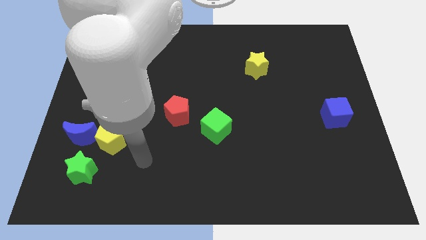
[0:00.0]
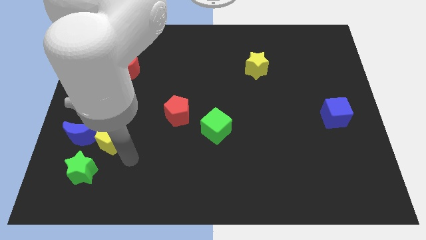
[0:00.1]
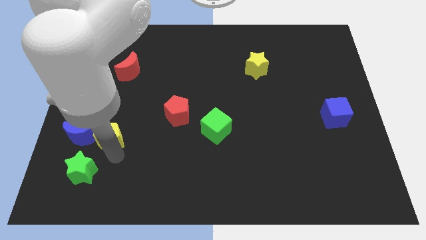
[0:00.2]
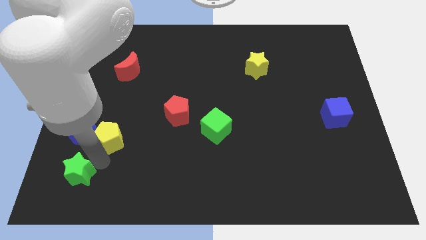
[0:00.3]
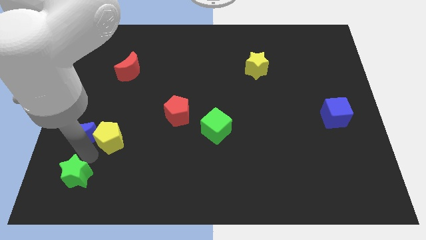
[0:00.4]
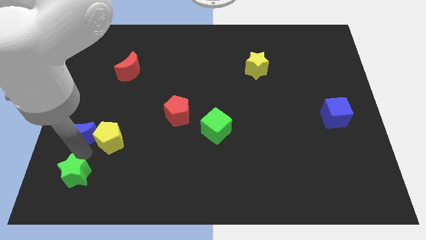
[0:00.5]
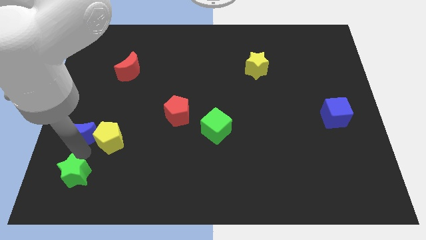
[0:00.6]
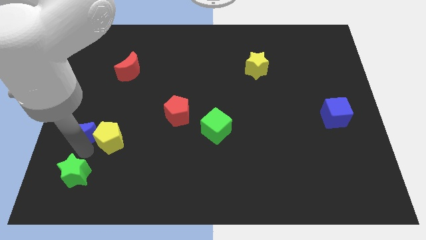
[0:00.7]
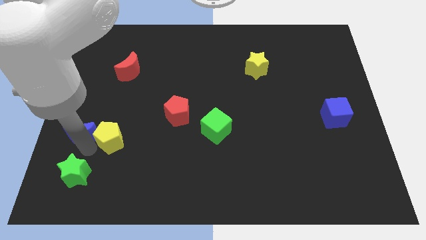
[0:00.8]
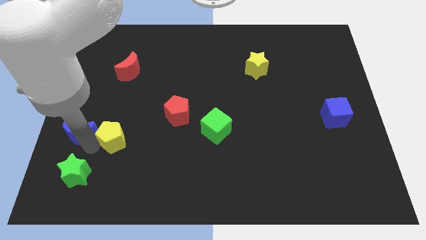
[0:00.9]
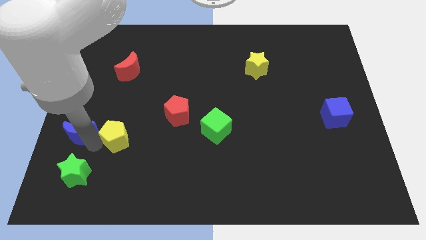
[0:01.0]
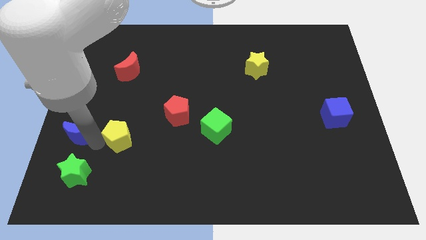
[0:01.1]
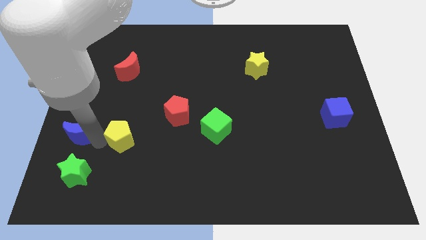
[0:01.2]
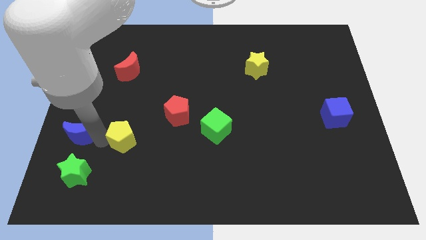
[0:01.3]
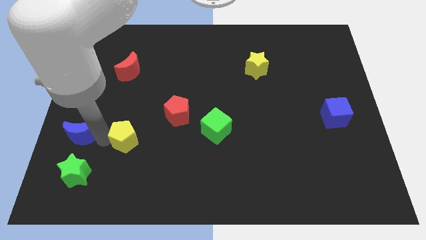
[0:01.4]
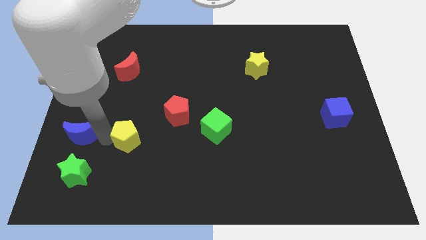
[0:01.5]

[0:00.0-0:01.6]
pull the yellow pentagon apart from the blue moon and green star

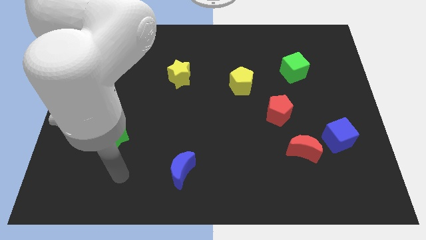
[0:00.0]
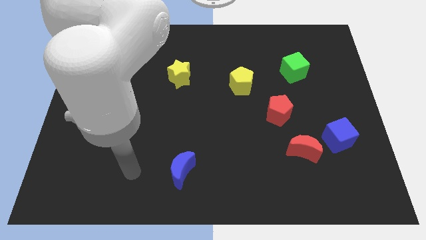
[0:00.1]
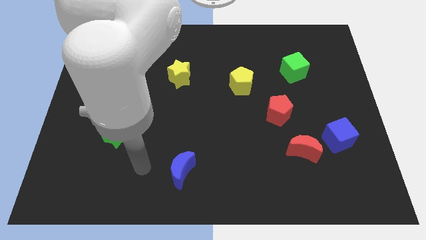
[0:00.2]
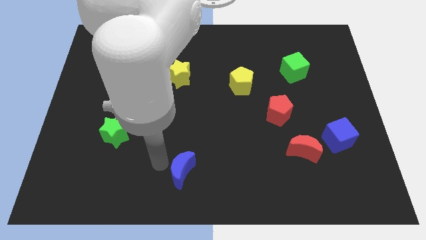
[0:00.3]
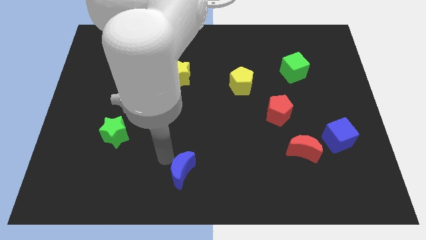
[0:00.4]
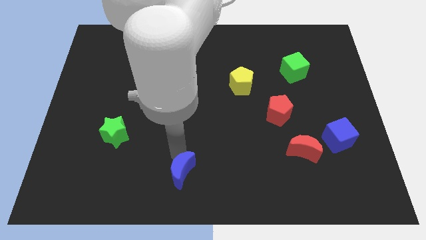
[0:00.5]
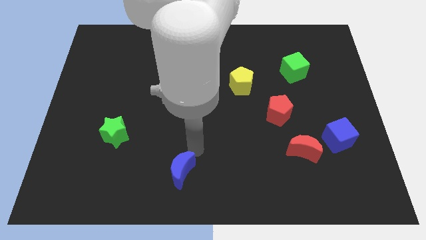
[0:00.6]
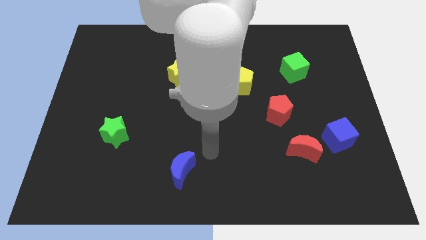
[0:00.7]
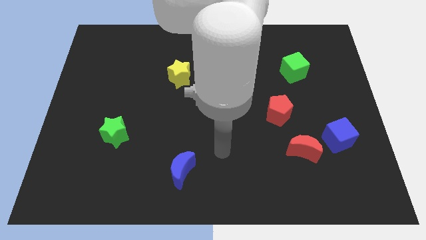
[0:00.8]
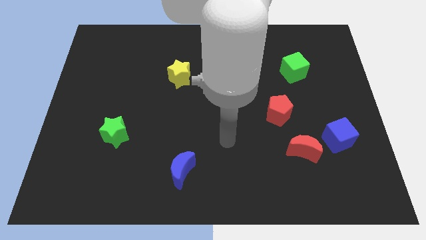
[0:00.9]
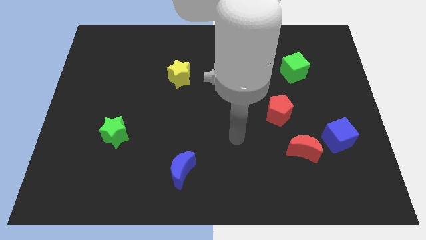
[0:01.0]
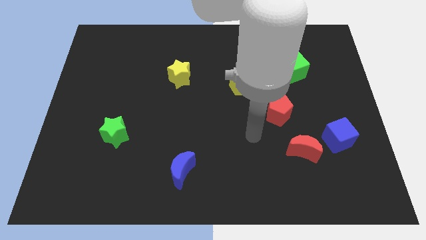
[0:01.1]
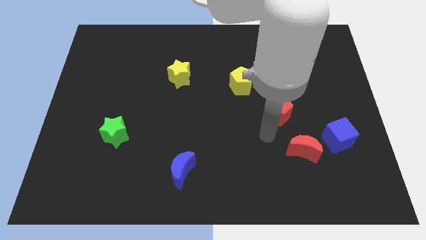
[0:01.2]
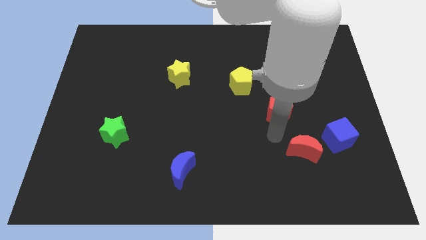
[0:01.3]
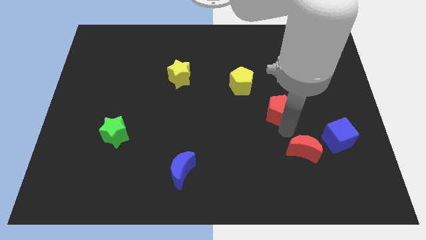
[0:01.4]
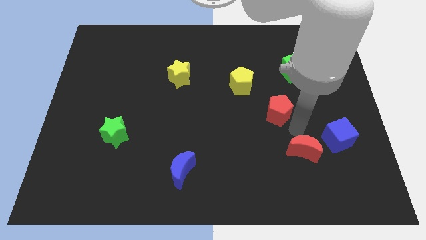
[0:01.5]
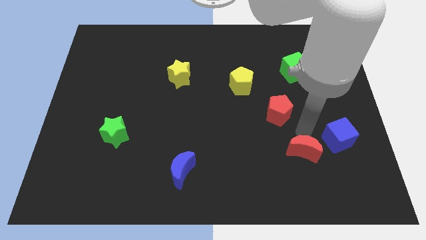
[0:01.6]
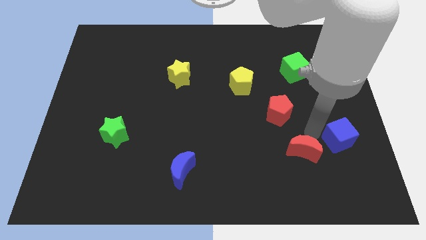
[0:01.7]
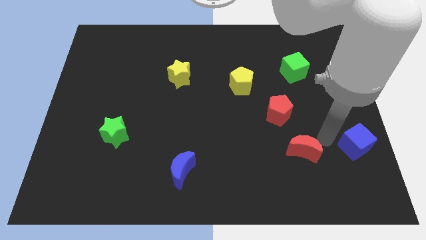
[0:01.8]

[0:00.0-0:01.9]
move the red moon away from the blue cube

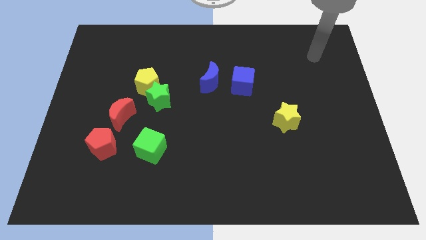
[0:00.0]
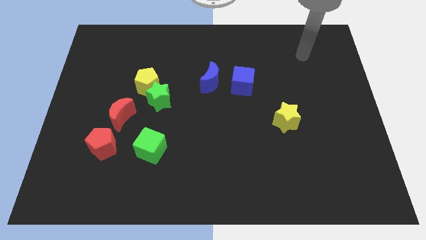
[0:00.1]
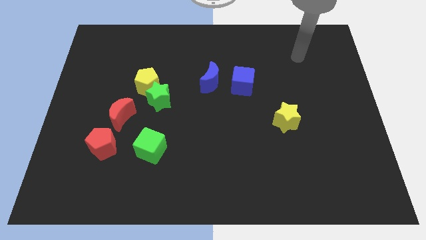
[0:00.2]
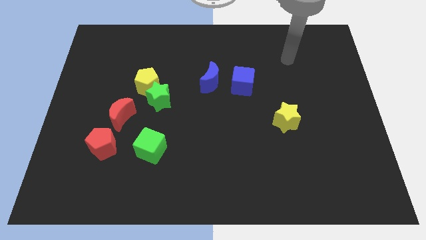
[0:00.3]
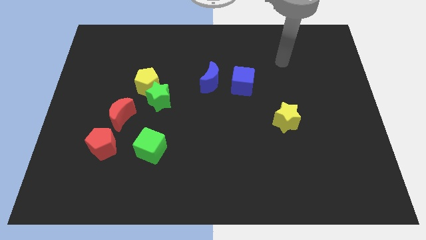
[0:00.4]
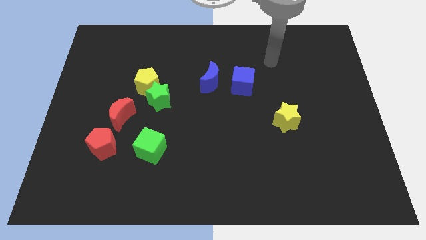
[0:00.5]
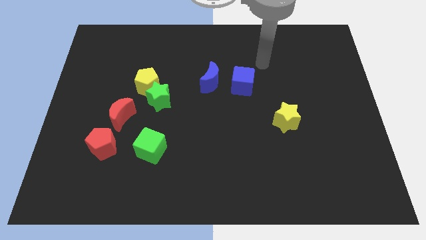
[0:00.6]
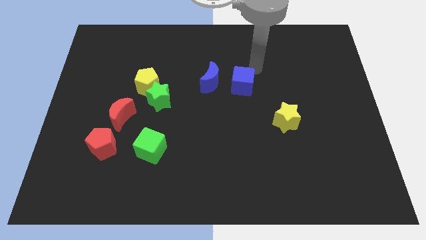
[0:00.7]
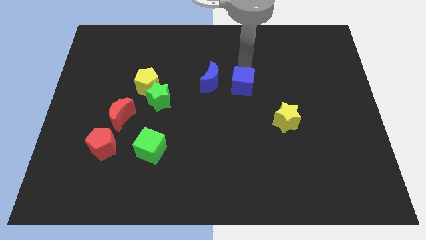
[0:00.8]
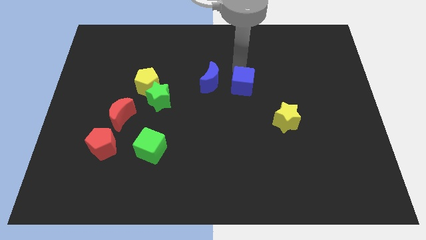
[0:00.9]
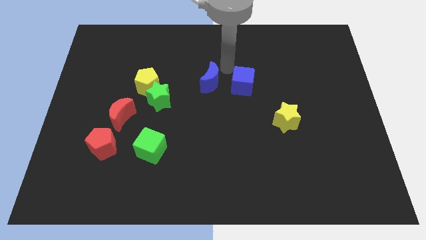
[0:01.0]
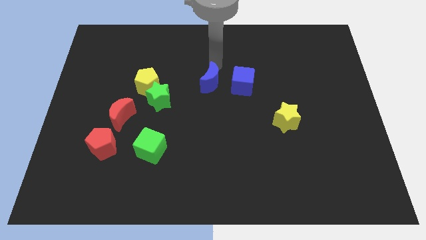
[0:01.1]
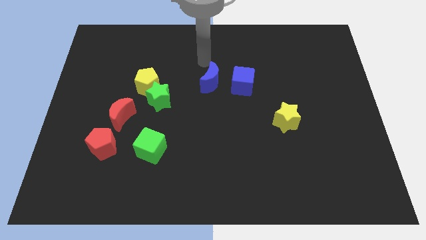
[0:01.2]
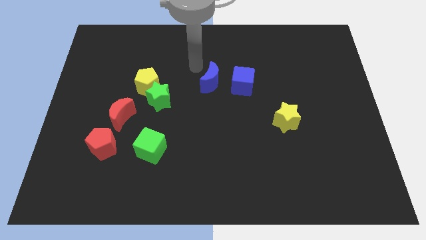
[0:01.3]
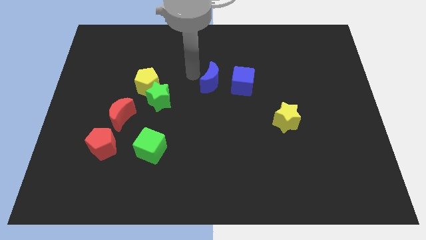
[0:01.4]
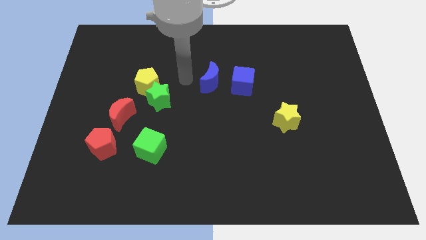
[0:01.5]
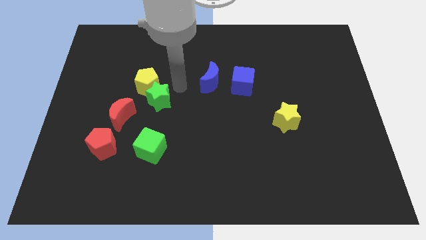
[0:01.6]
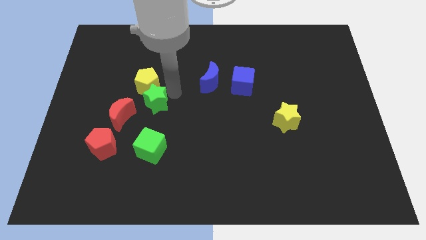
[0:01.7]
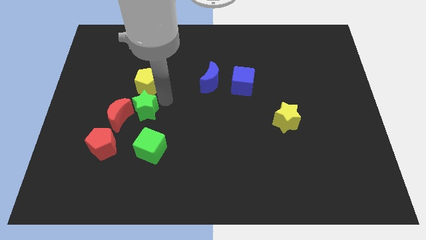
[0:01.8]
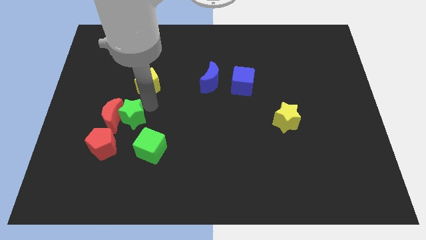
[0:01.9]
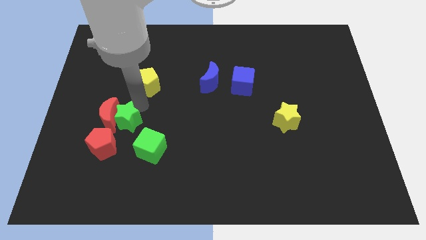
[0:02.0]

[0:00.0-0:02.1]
separate the yellow pentagon from the green star

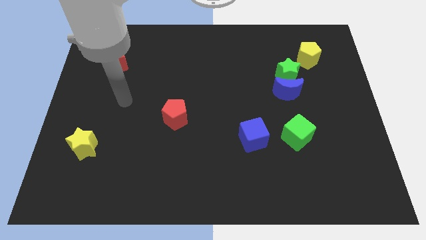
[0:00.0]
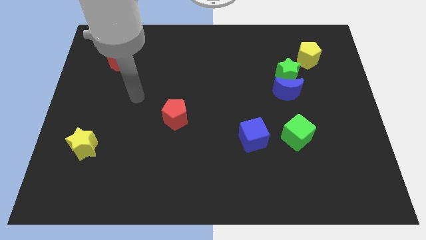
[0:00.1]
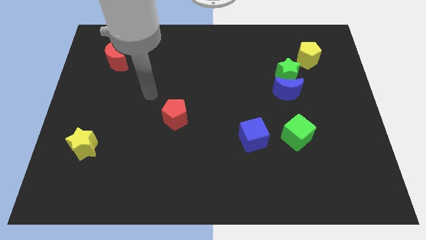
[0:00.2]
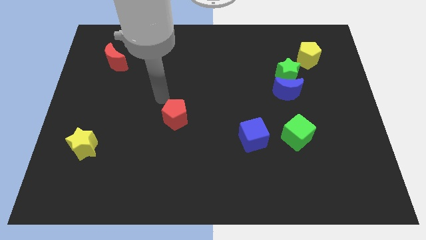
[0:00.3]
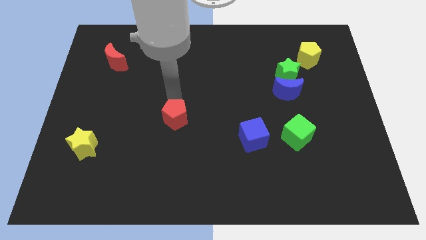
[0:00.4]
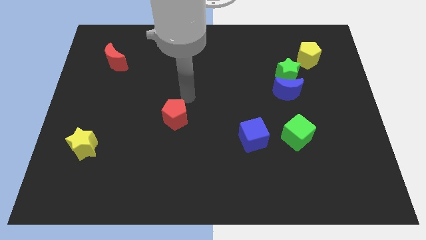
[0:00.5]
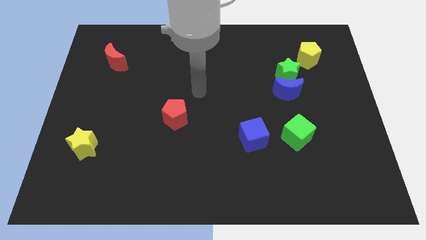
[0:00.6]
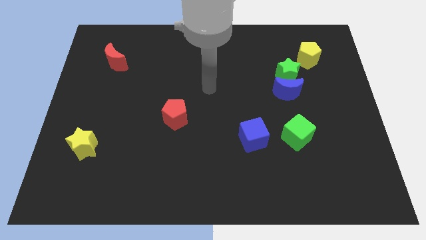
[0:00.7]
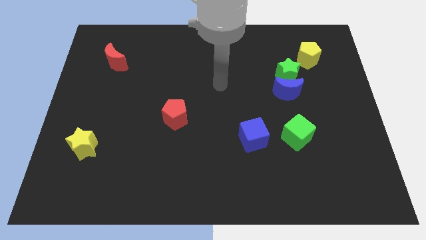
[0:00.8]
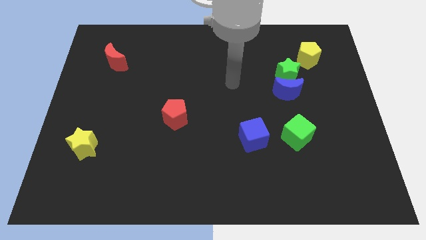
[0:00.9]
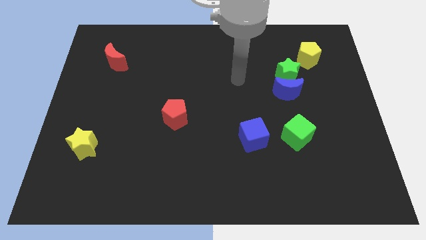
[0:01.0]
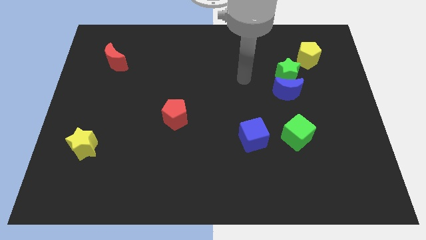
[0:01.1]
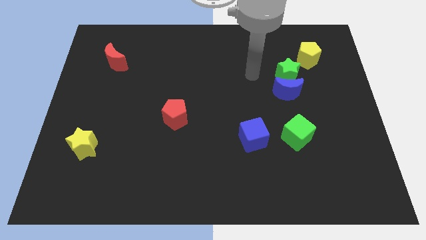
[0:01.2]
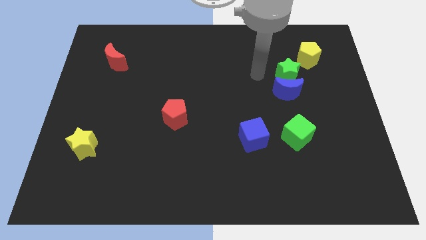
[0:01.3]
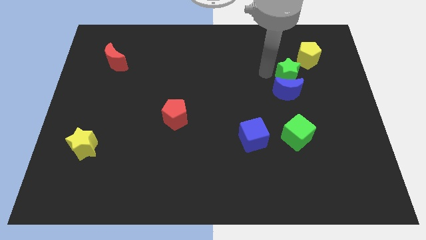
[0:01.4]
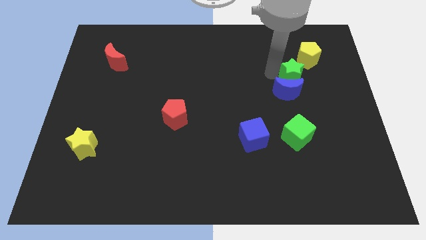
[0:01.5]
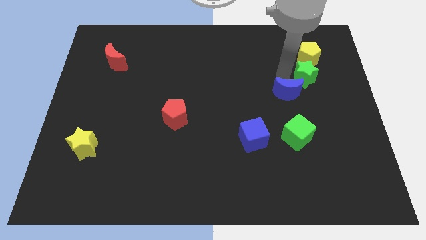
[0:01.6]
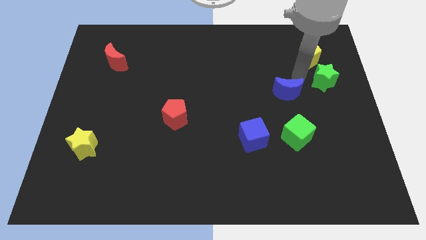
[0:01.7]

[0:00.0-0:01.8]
pull the blue moon apart from the green star

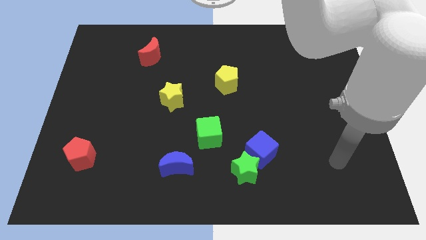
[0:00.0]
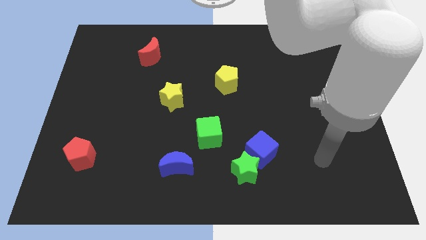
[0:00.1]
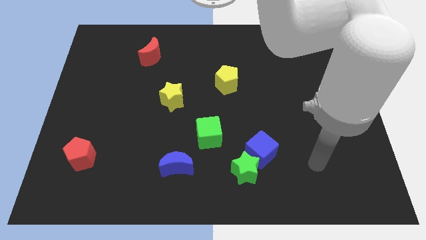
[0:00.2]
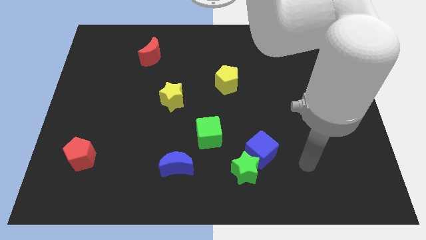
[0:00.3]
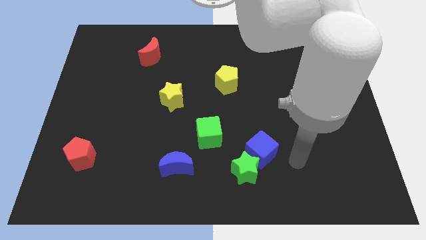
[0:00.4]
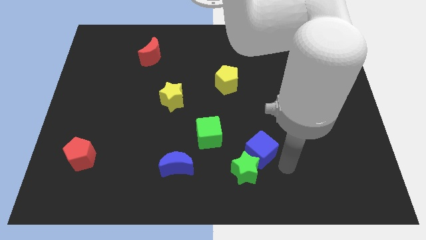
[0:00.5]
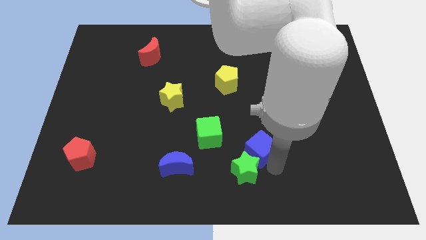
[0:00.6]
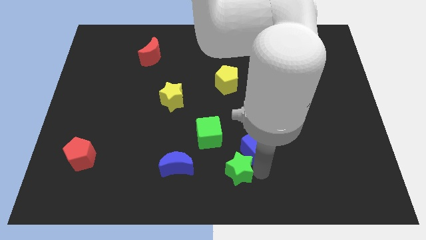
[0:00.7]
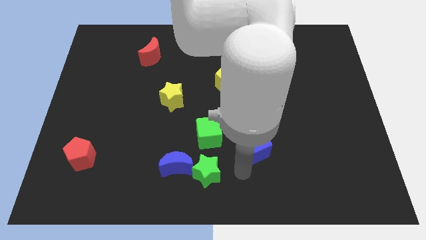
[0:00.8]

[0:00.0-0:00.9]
move the blue cube away from the green star

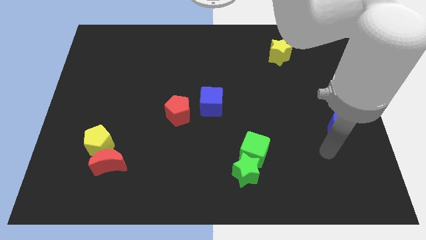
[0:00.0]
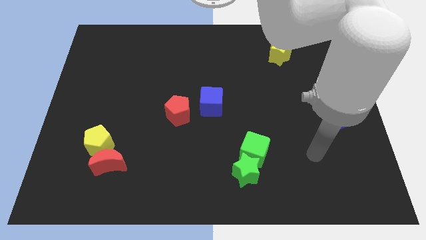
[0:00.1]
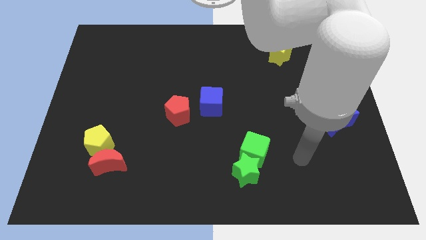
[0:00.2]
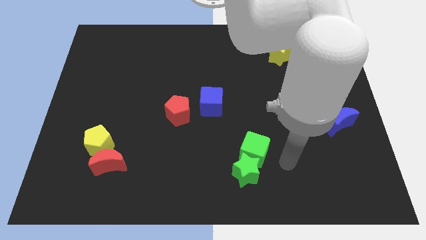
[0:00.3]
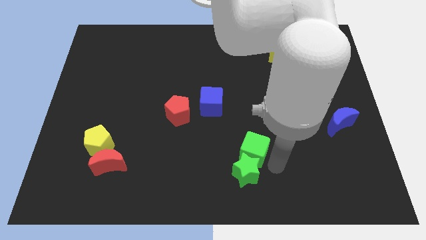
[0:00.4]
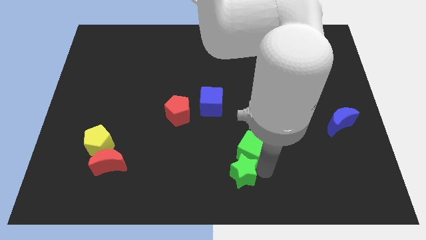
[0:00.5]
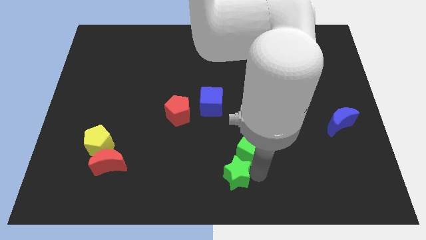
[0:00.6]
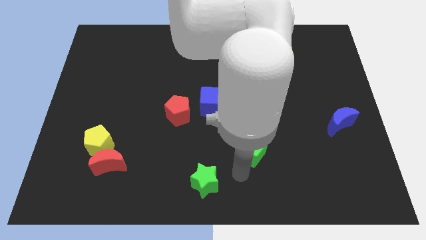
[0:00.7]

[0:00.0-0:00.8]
pull the green cube apart from the green star

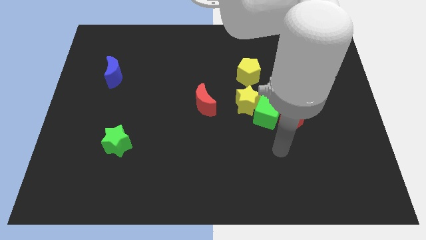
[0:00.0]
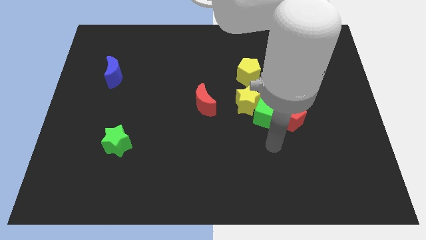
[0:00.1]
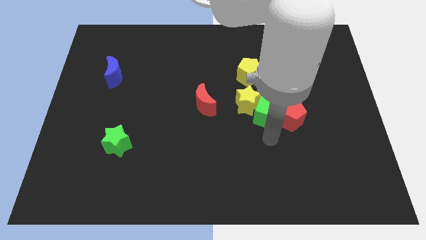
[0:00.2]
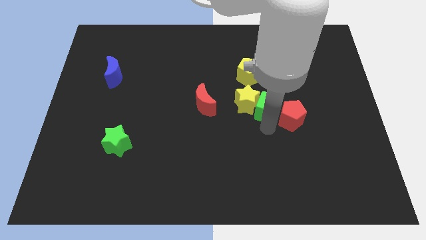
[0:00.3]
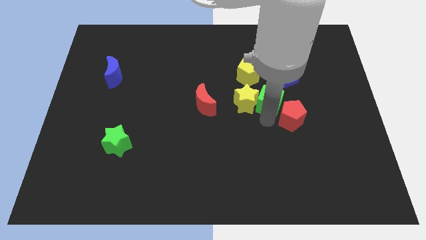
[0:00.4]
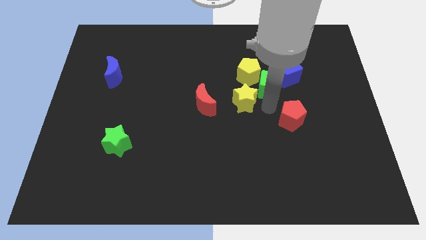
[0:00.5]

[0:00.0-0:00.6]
pull the red pentagon apart from the green cube
